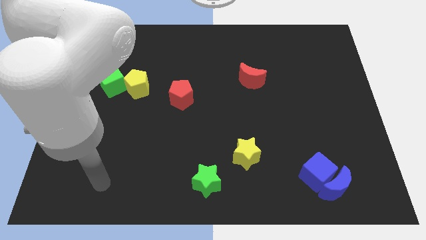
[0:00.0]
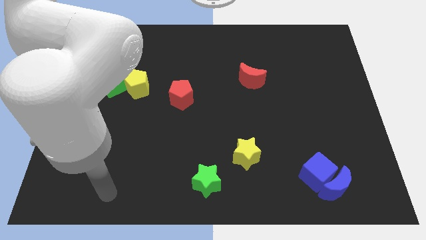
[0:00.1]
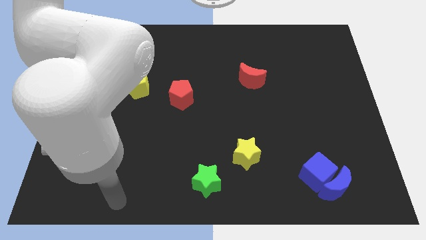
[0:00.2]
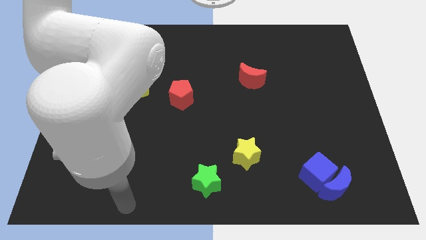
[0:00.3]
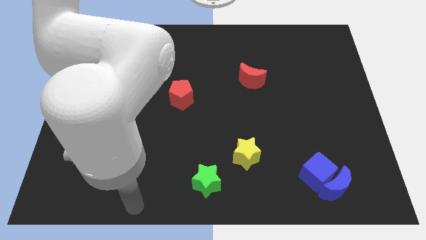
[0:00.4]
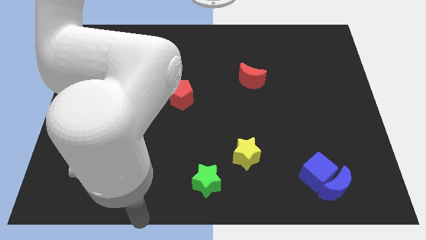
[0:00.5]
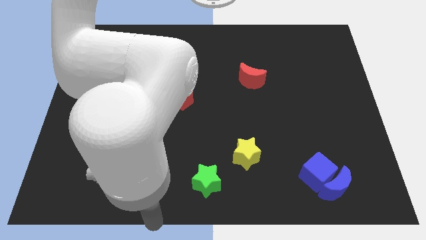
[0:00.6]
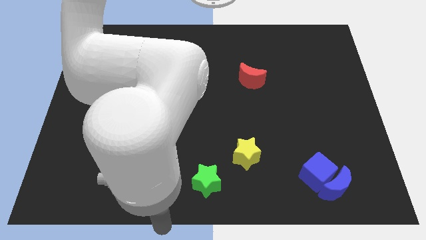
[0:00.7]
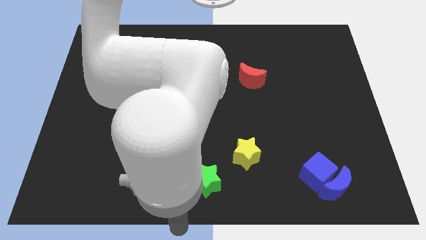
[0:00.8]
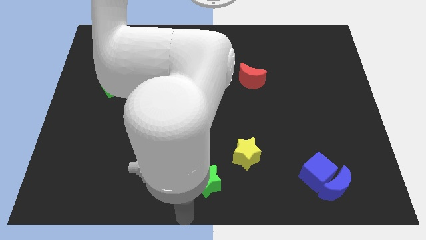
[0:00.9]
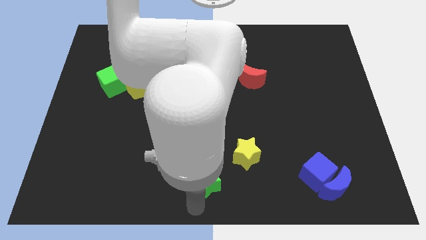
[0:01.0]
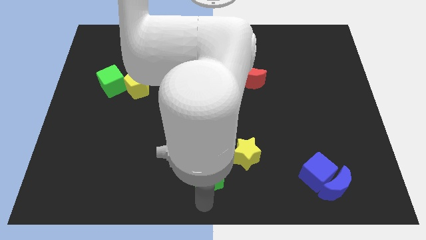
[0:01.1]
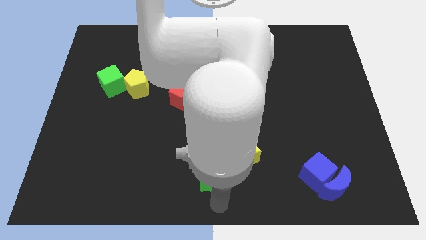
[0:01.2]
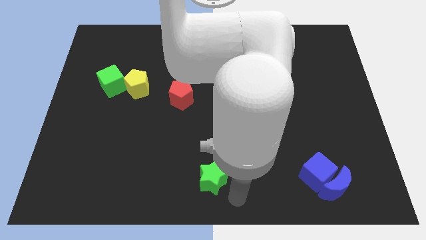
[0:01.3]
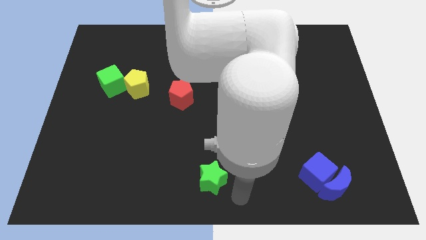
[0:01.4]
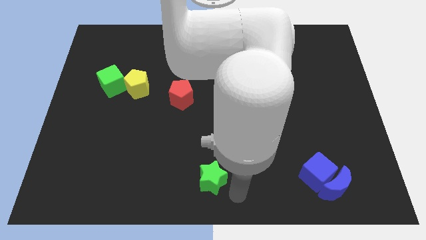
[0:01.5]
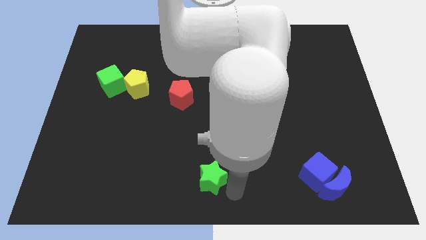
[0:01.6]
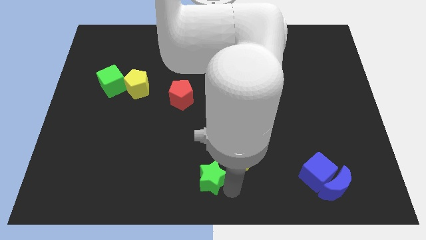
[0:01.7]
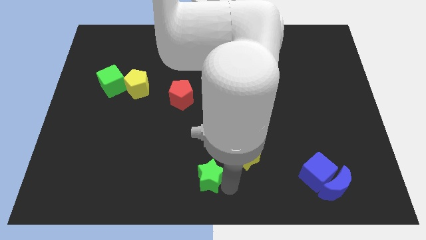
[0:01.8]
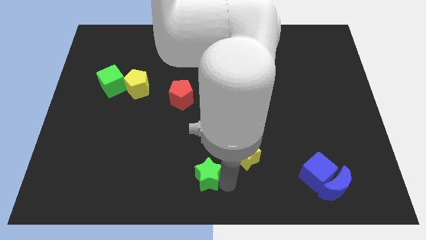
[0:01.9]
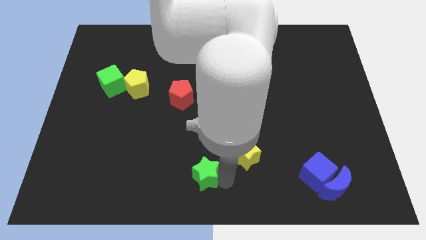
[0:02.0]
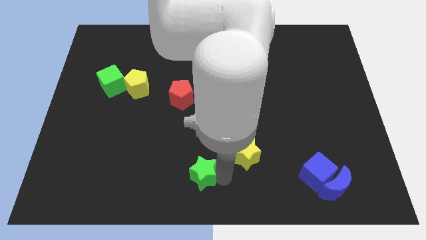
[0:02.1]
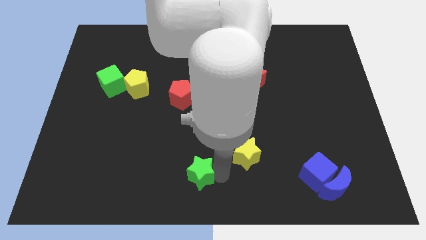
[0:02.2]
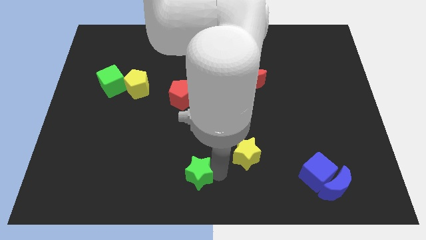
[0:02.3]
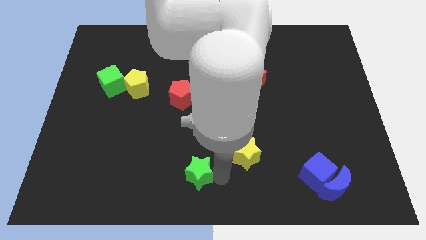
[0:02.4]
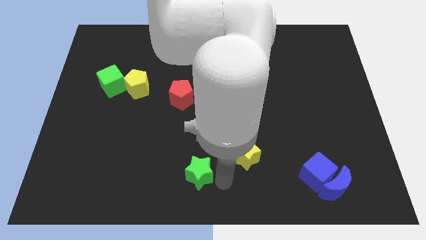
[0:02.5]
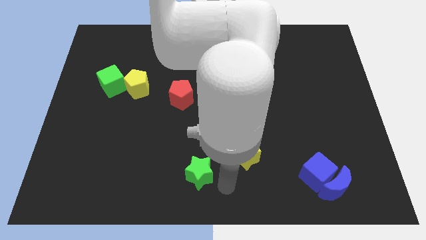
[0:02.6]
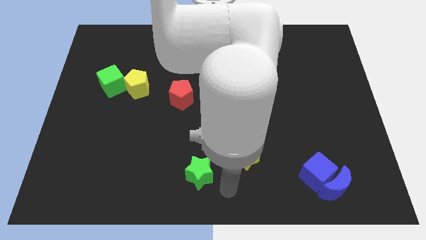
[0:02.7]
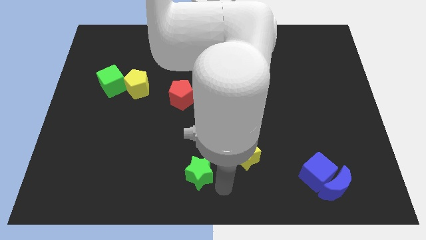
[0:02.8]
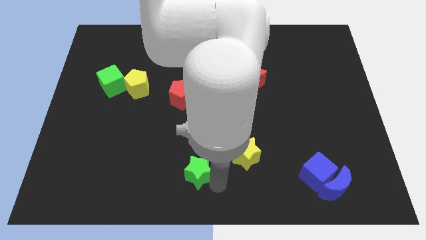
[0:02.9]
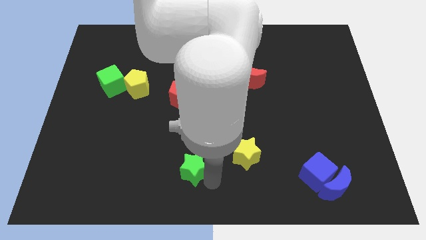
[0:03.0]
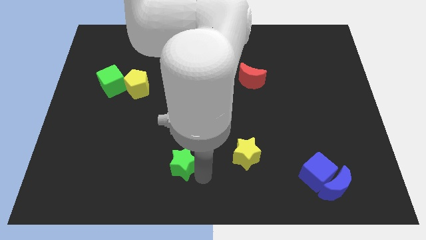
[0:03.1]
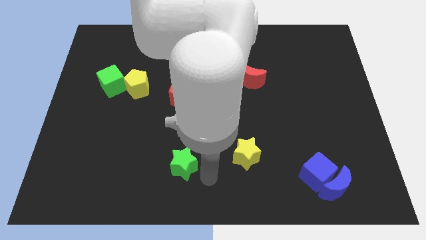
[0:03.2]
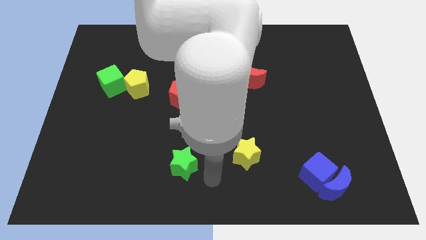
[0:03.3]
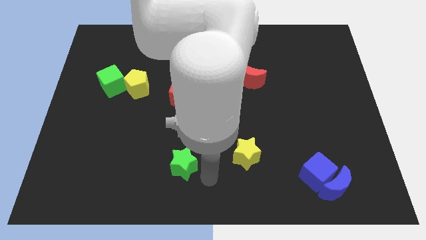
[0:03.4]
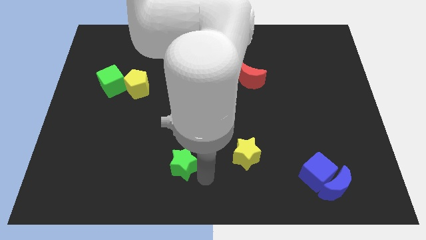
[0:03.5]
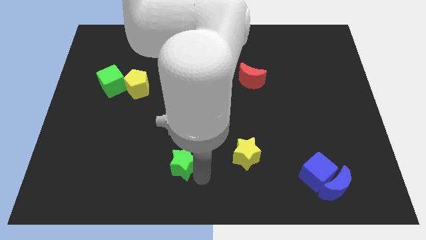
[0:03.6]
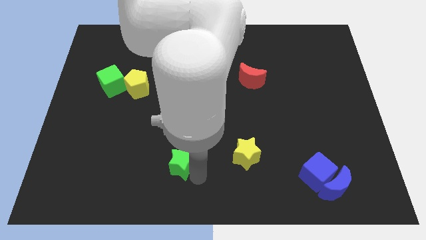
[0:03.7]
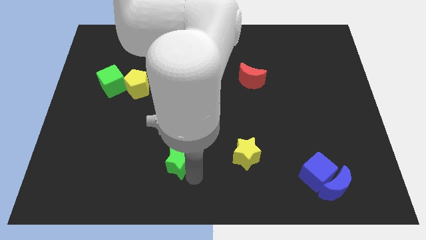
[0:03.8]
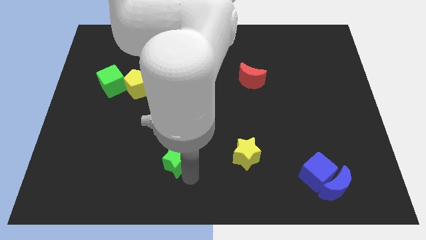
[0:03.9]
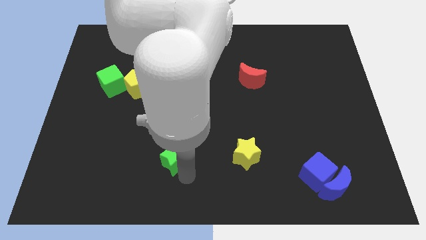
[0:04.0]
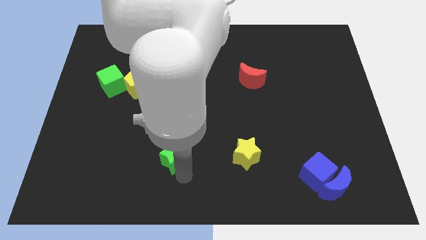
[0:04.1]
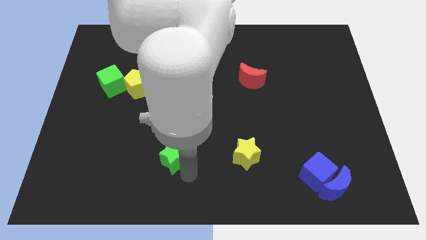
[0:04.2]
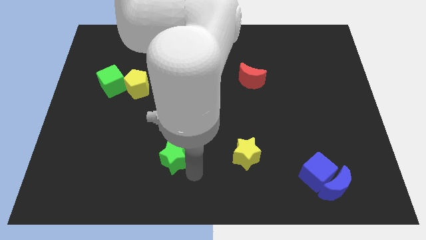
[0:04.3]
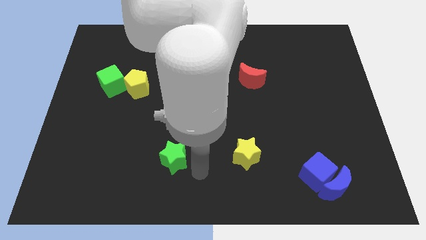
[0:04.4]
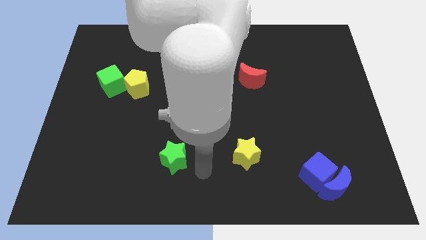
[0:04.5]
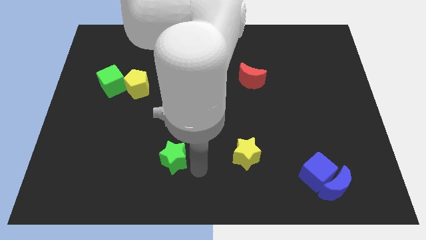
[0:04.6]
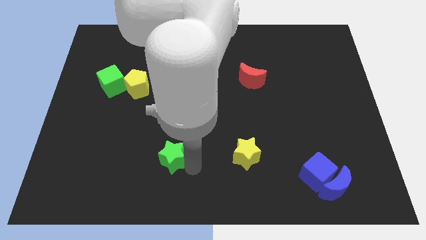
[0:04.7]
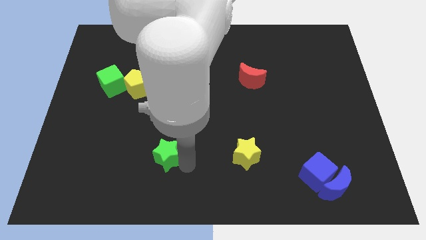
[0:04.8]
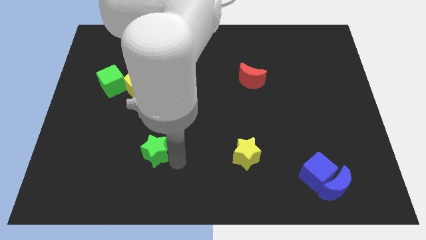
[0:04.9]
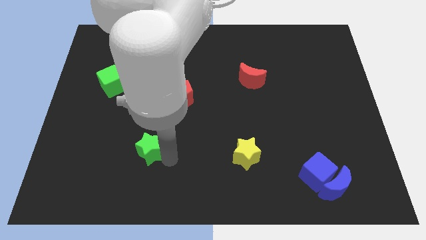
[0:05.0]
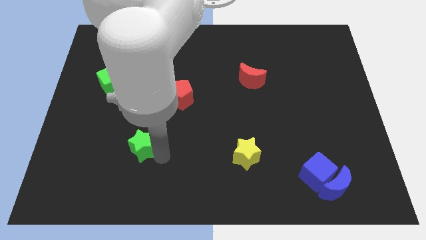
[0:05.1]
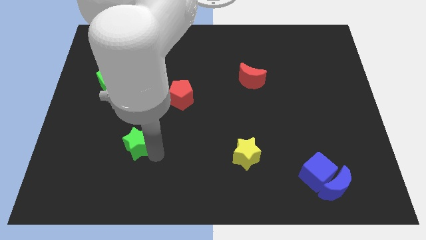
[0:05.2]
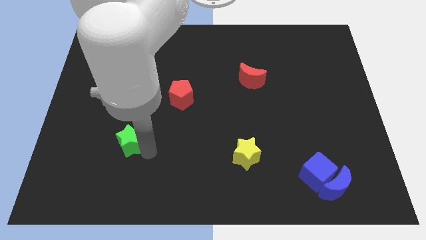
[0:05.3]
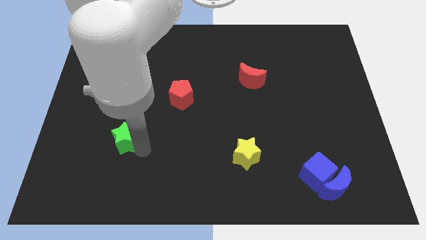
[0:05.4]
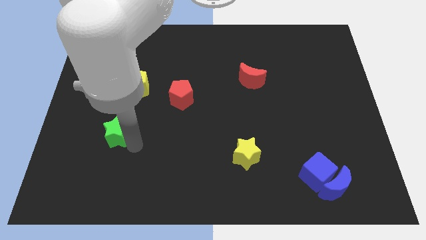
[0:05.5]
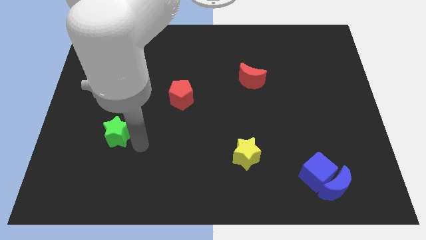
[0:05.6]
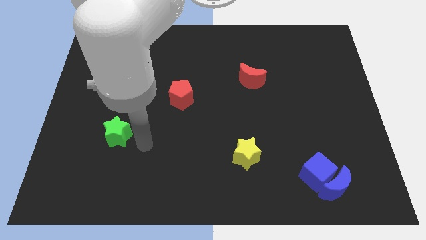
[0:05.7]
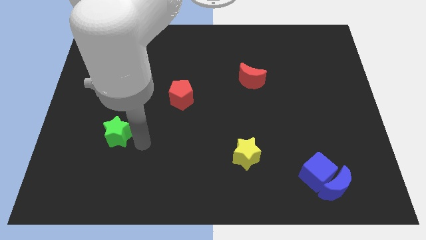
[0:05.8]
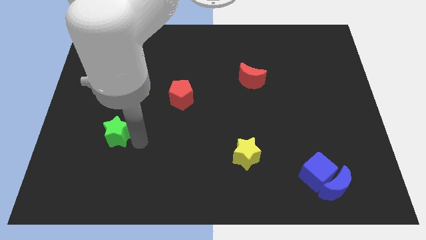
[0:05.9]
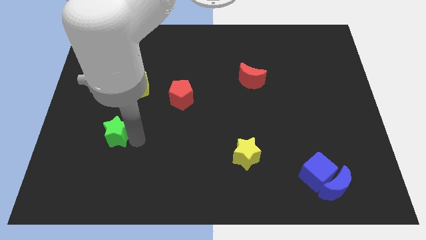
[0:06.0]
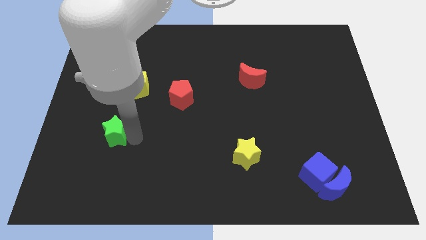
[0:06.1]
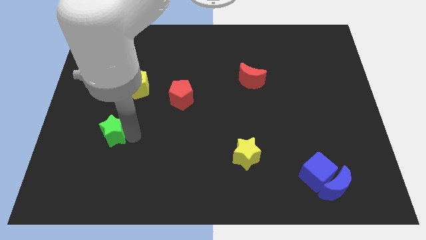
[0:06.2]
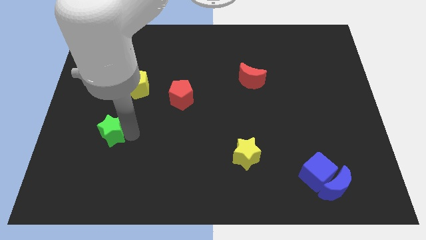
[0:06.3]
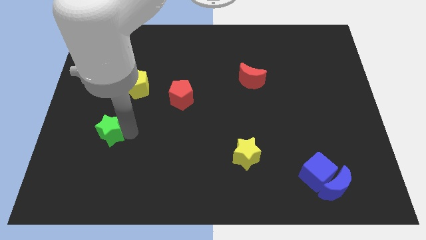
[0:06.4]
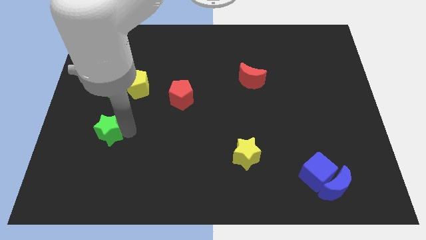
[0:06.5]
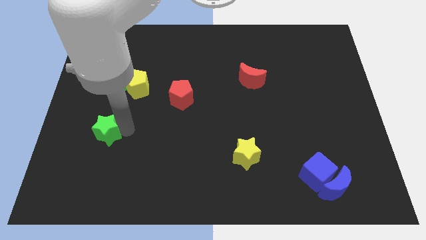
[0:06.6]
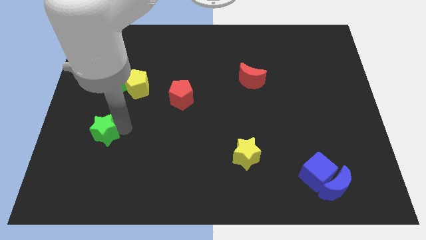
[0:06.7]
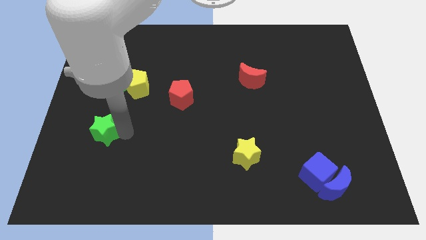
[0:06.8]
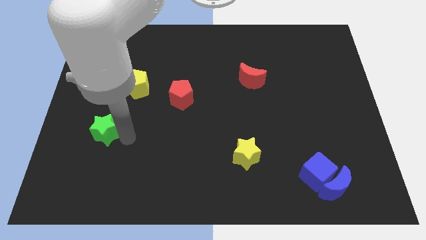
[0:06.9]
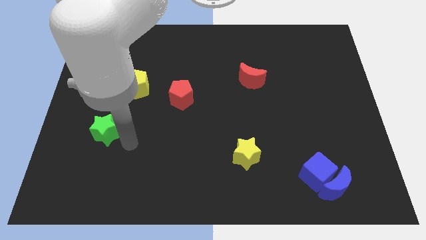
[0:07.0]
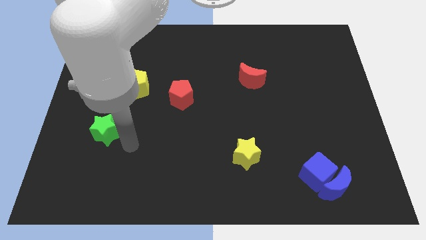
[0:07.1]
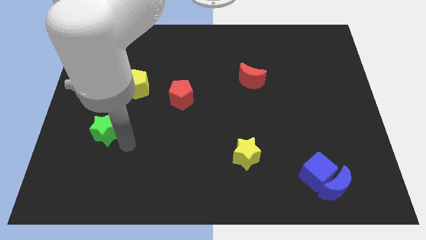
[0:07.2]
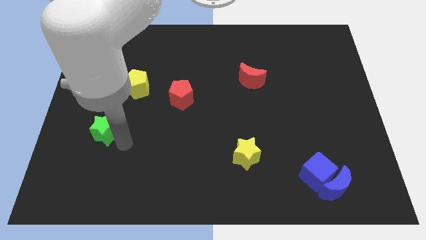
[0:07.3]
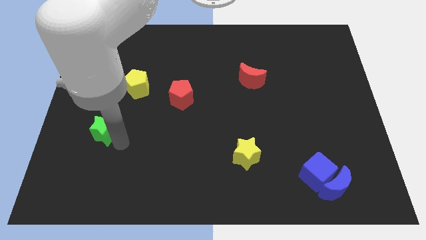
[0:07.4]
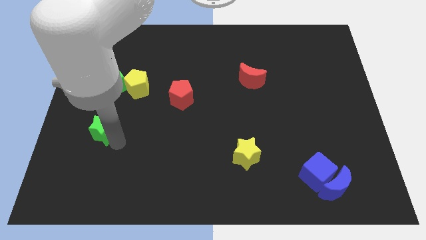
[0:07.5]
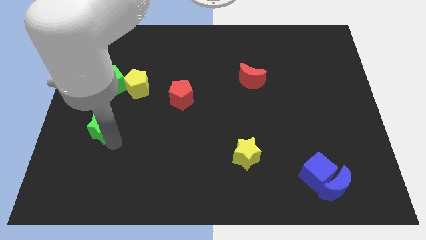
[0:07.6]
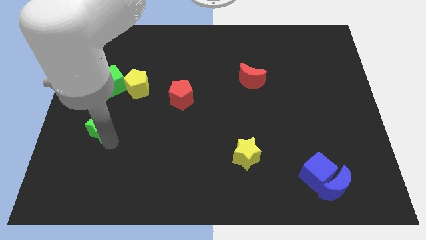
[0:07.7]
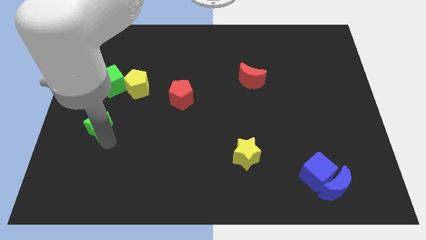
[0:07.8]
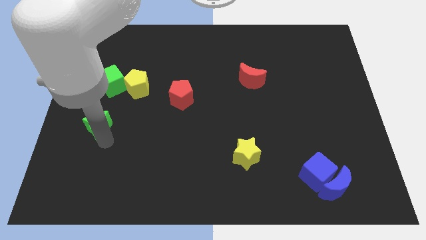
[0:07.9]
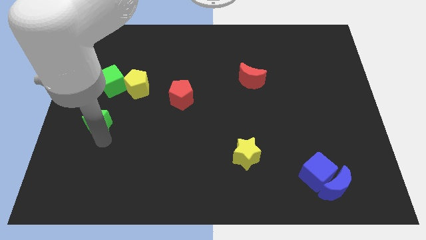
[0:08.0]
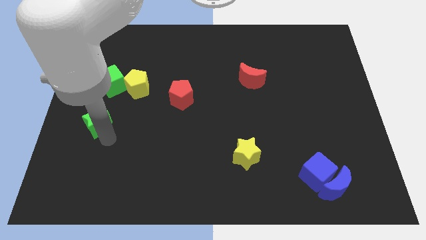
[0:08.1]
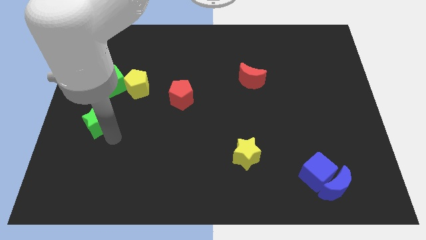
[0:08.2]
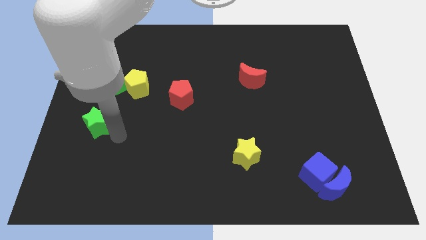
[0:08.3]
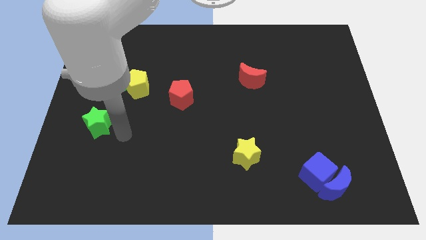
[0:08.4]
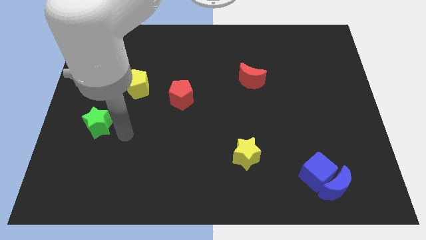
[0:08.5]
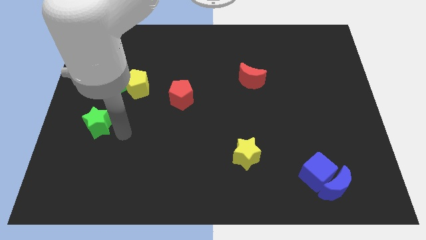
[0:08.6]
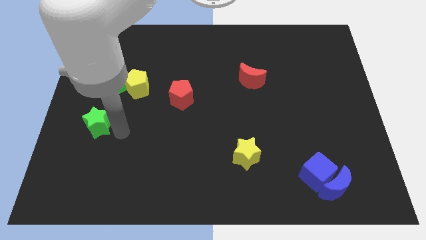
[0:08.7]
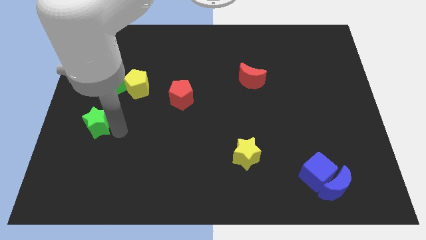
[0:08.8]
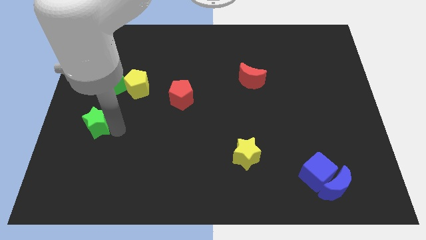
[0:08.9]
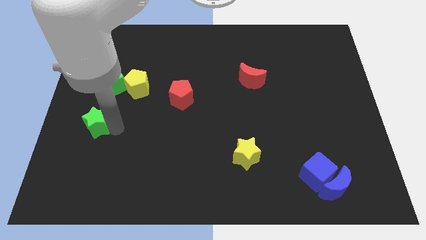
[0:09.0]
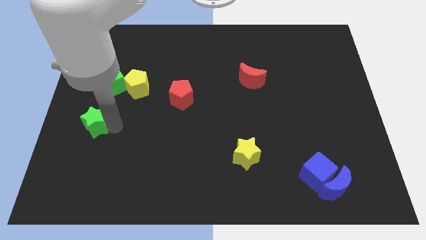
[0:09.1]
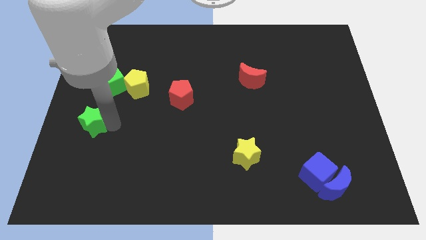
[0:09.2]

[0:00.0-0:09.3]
push the green star to the left side
